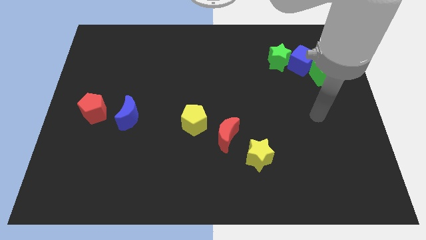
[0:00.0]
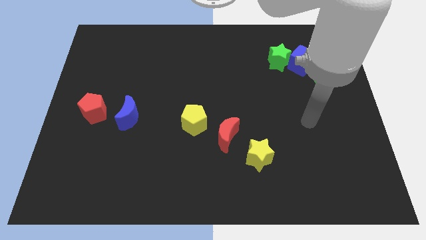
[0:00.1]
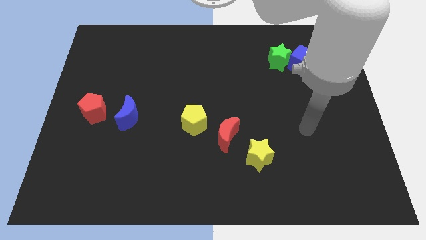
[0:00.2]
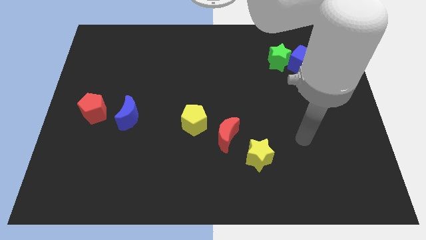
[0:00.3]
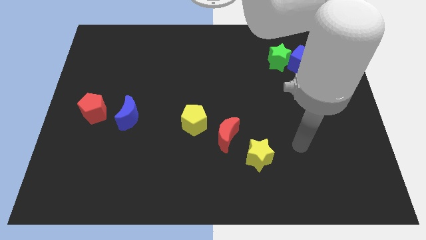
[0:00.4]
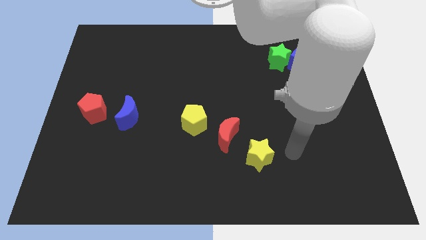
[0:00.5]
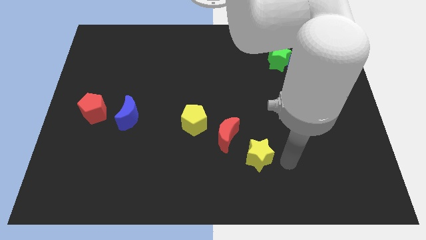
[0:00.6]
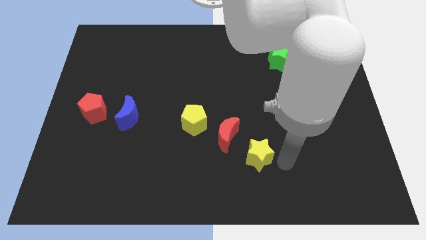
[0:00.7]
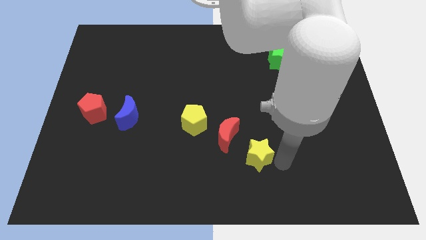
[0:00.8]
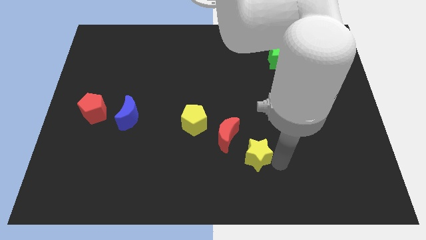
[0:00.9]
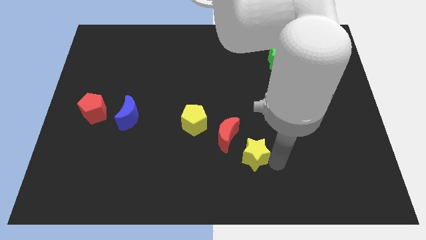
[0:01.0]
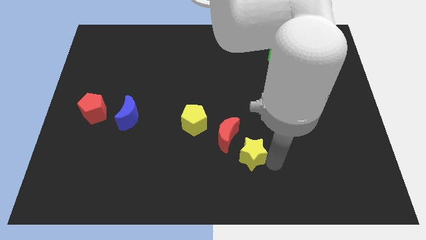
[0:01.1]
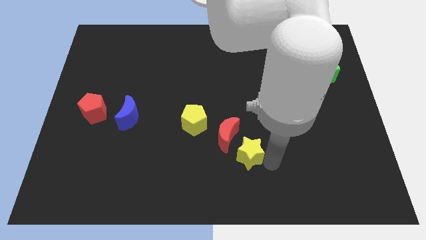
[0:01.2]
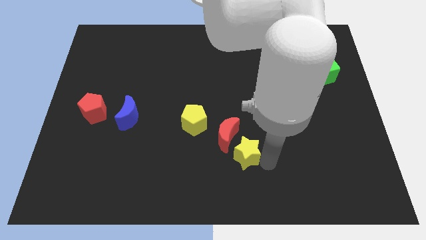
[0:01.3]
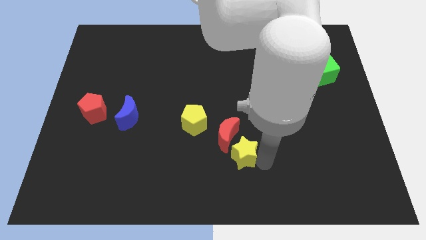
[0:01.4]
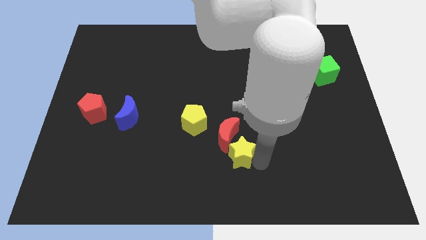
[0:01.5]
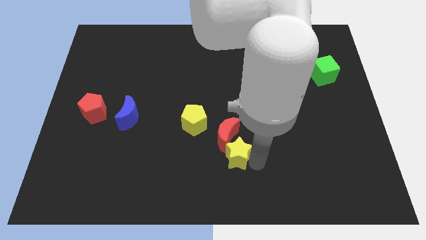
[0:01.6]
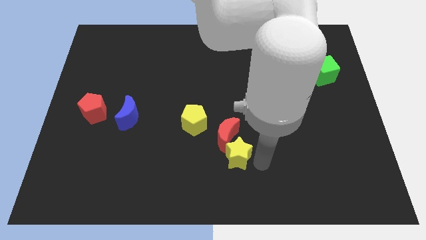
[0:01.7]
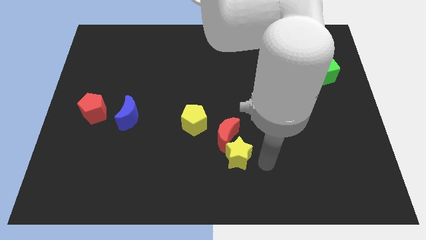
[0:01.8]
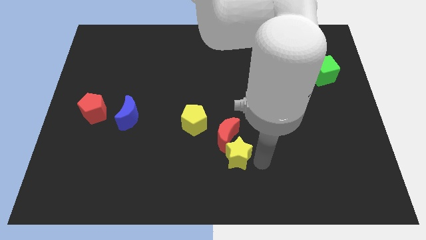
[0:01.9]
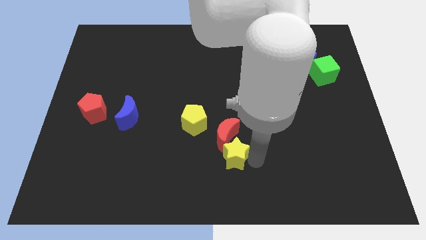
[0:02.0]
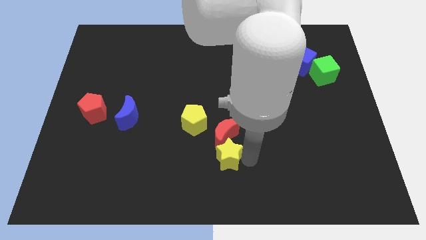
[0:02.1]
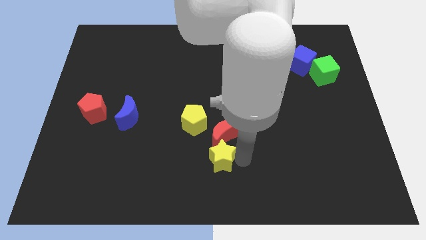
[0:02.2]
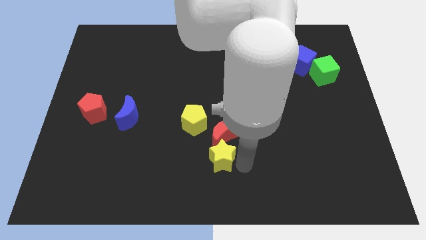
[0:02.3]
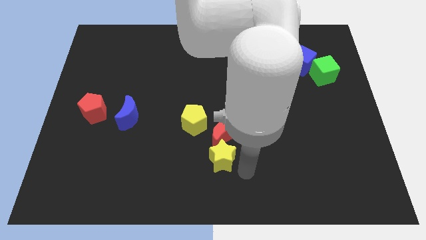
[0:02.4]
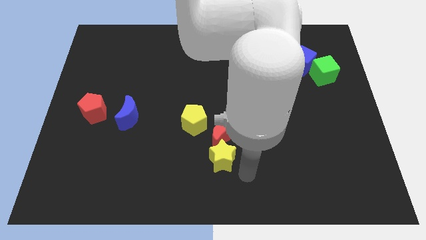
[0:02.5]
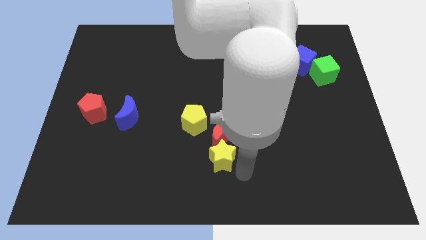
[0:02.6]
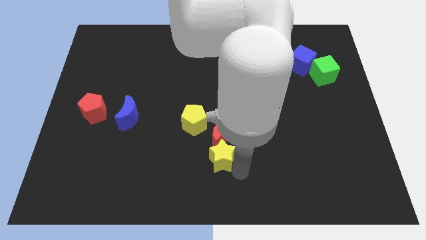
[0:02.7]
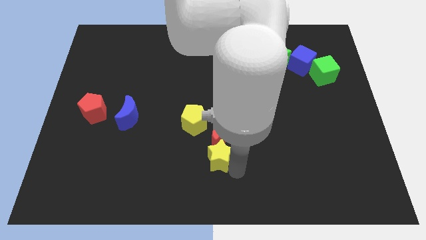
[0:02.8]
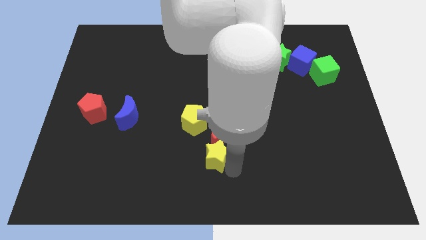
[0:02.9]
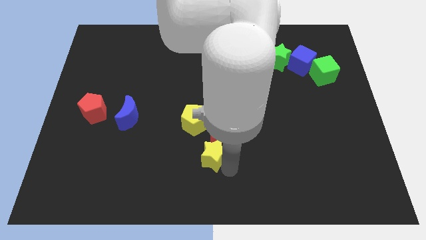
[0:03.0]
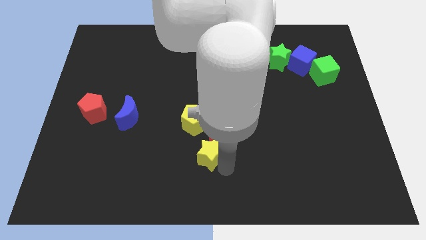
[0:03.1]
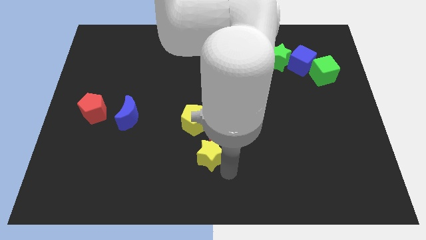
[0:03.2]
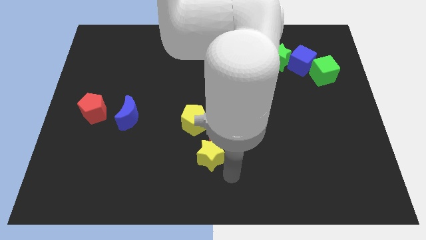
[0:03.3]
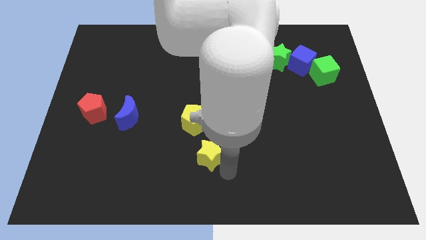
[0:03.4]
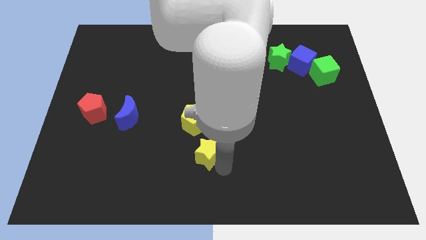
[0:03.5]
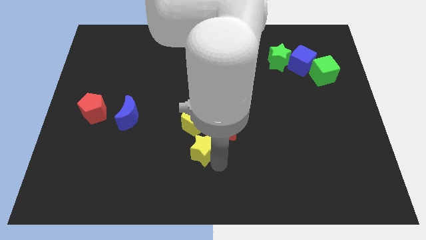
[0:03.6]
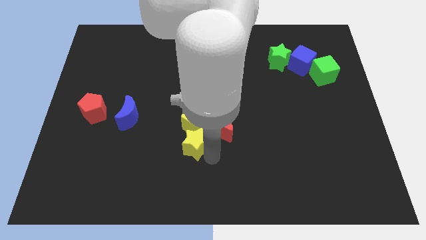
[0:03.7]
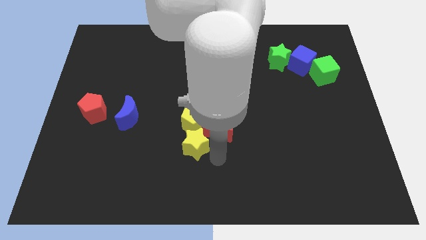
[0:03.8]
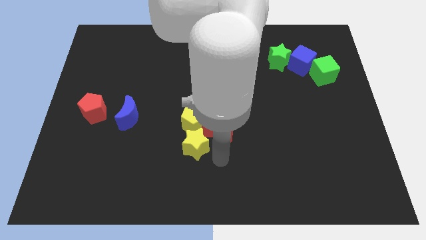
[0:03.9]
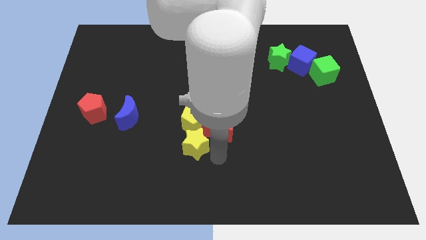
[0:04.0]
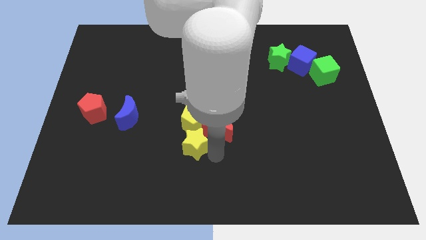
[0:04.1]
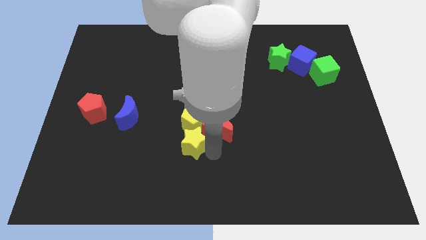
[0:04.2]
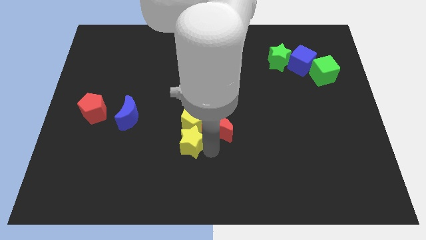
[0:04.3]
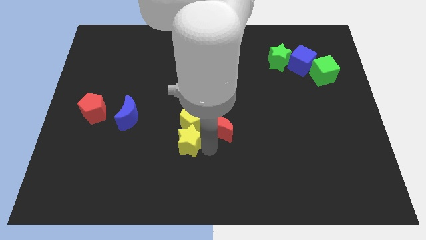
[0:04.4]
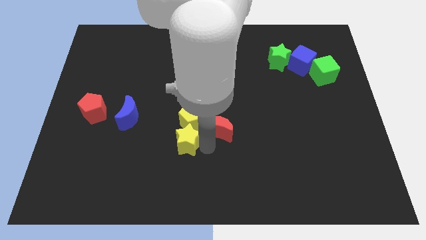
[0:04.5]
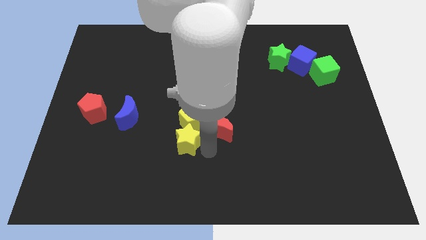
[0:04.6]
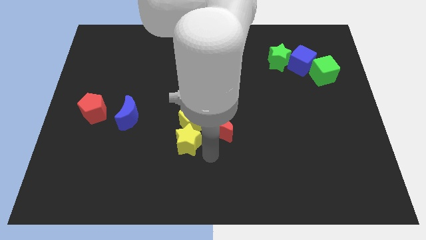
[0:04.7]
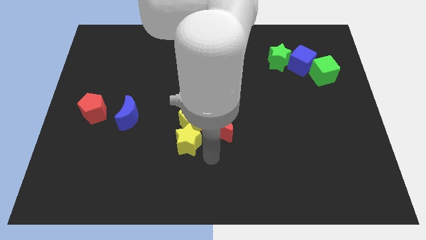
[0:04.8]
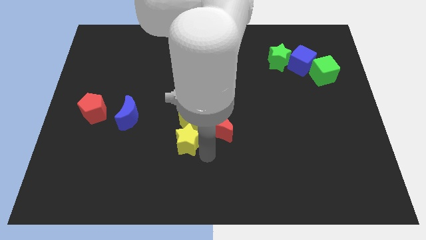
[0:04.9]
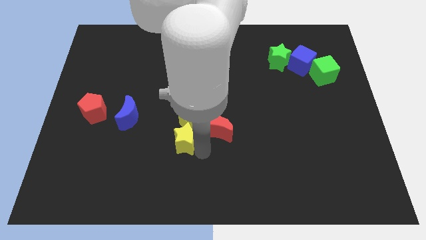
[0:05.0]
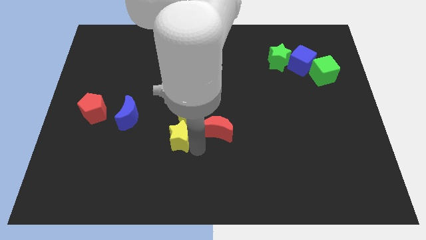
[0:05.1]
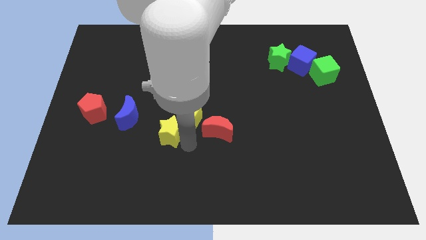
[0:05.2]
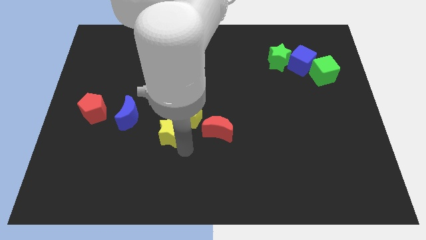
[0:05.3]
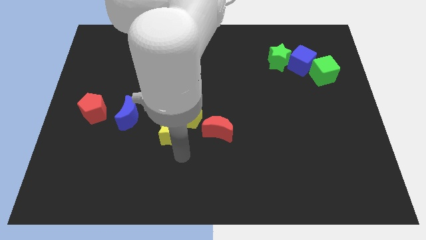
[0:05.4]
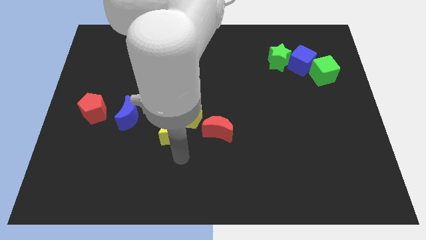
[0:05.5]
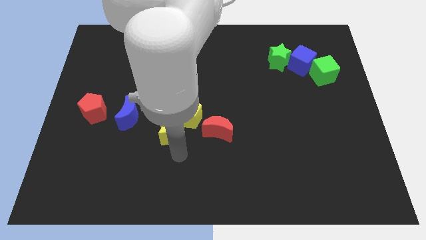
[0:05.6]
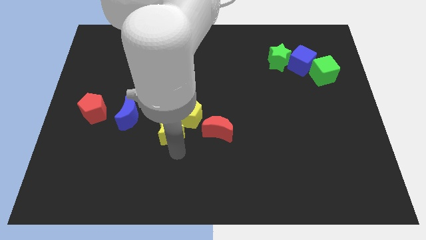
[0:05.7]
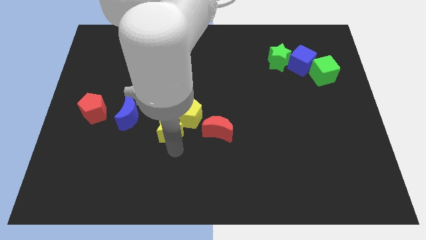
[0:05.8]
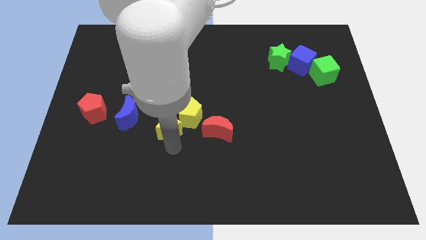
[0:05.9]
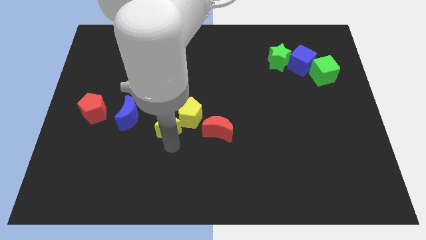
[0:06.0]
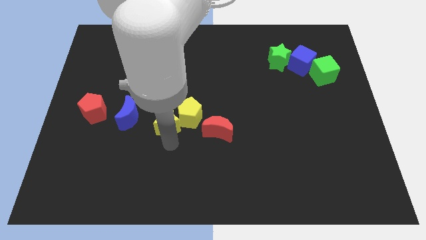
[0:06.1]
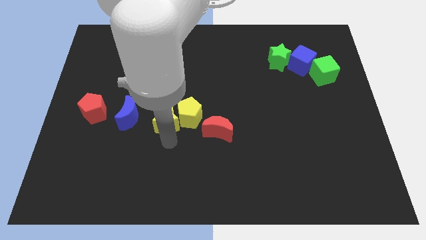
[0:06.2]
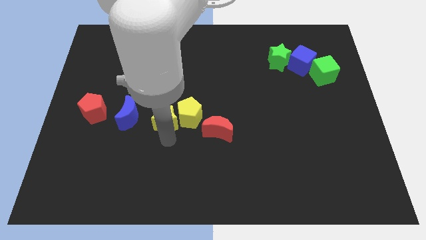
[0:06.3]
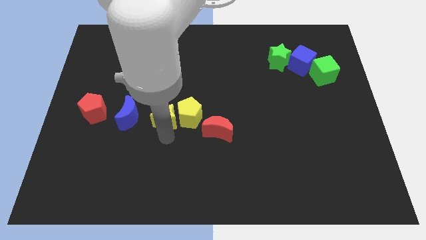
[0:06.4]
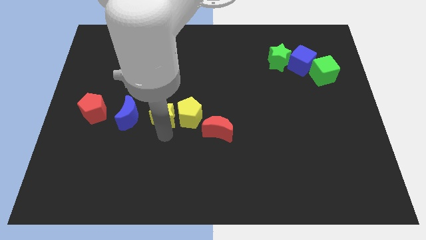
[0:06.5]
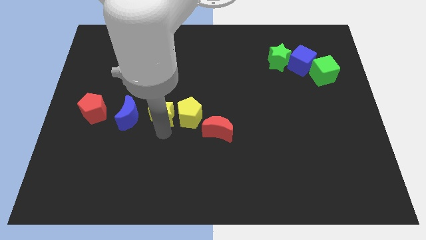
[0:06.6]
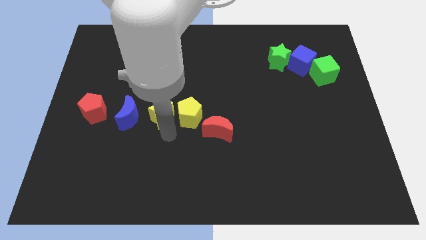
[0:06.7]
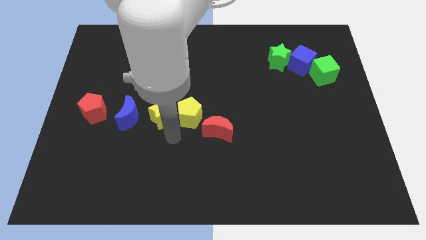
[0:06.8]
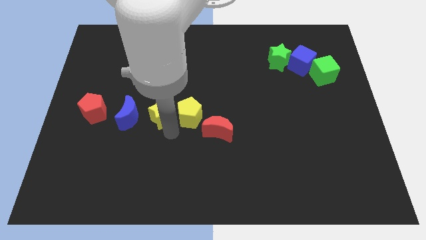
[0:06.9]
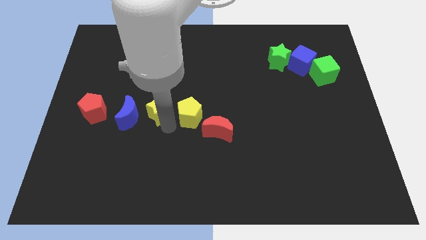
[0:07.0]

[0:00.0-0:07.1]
slide the yellow star to the top right side of the blue moon
